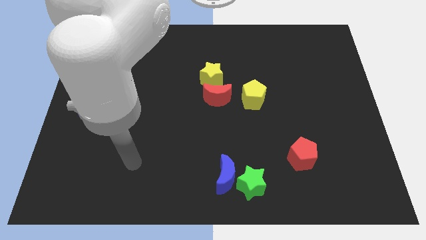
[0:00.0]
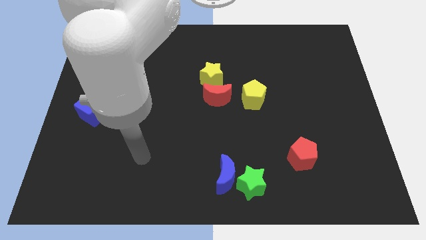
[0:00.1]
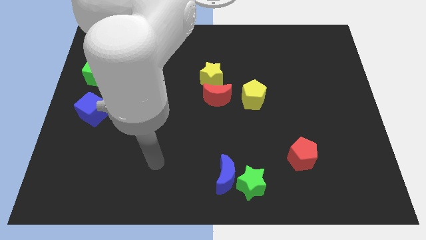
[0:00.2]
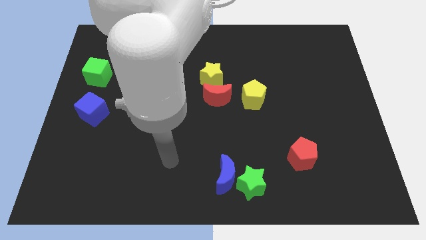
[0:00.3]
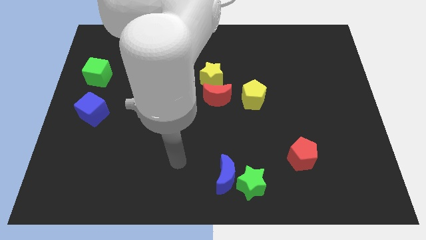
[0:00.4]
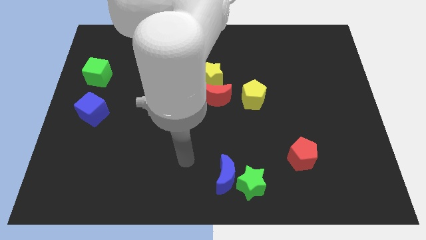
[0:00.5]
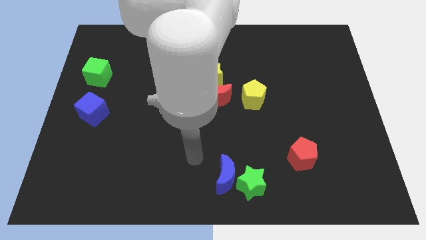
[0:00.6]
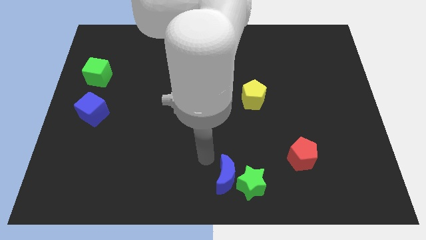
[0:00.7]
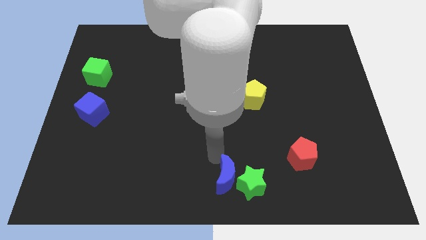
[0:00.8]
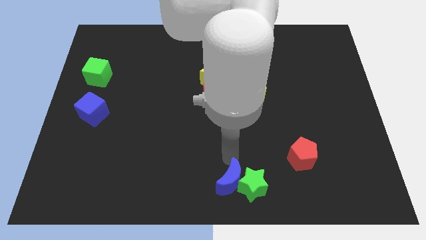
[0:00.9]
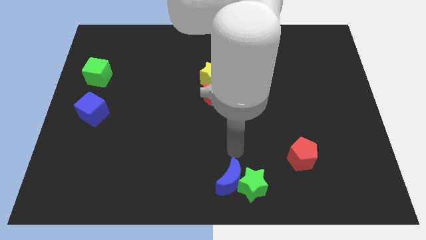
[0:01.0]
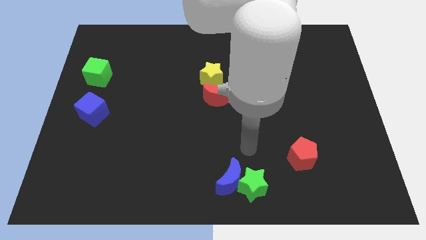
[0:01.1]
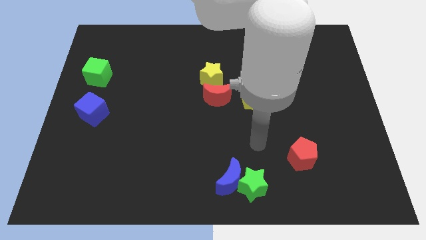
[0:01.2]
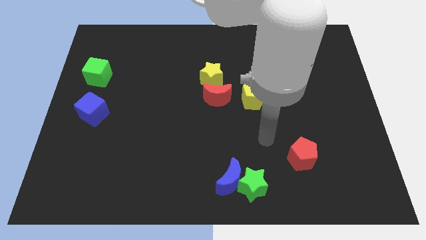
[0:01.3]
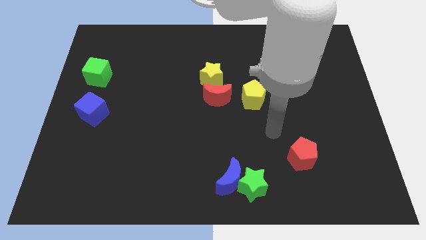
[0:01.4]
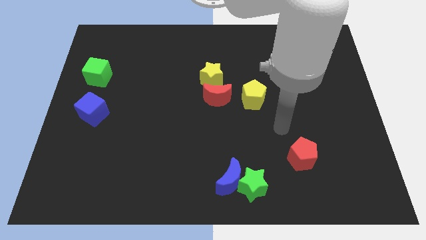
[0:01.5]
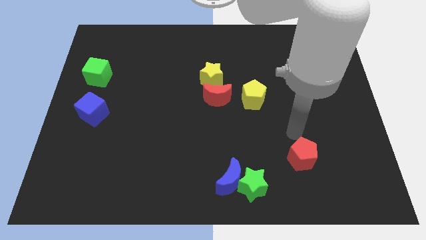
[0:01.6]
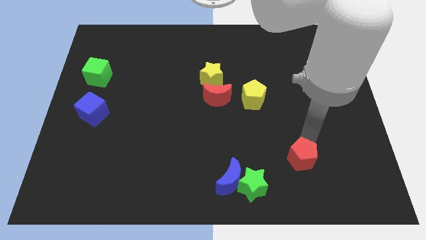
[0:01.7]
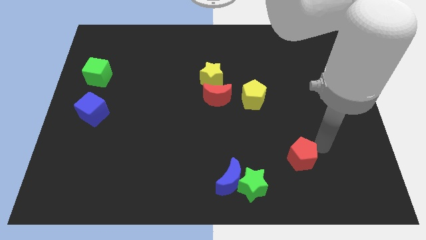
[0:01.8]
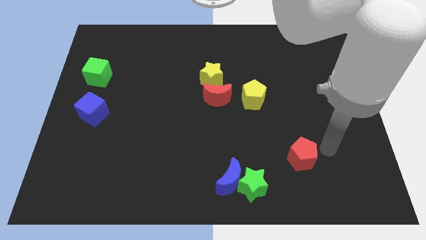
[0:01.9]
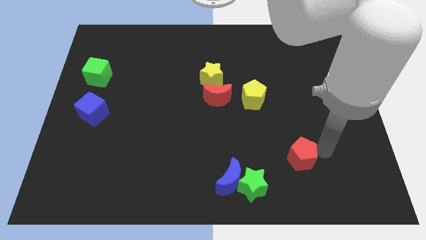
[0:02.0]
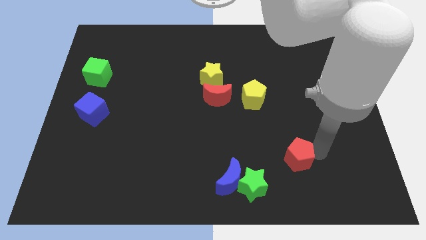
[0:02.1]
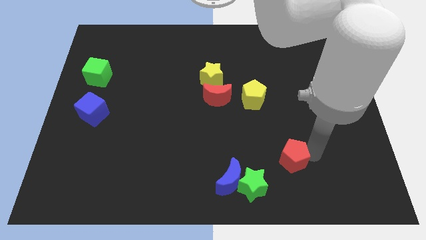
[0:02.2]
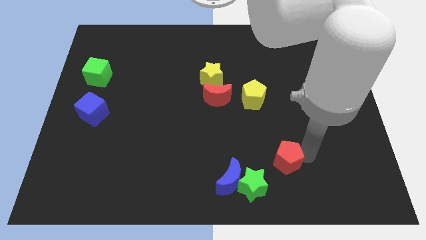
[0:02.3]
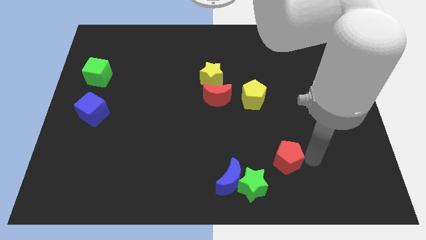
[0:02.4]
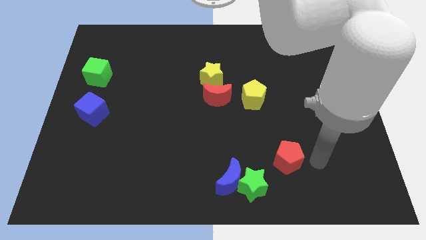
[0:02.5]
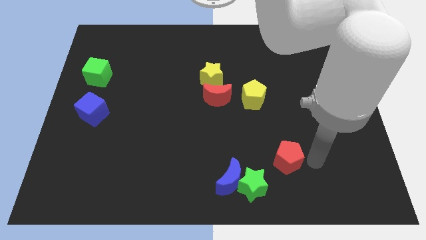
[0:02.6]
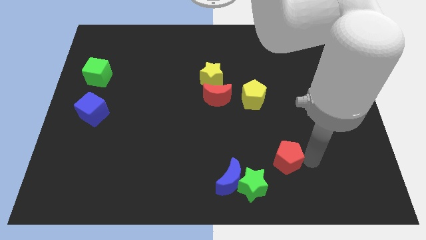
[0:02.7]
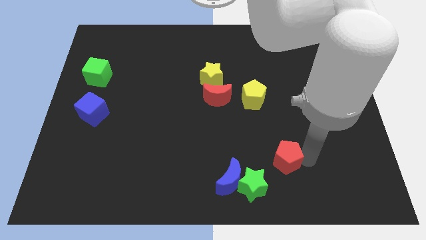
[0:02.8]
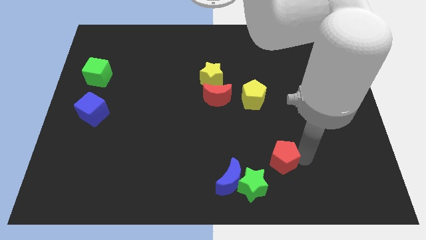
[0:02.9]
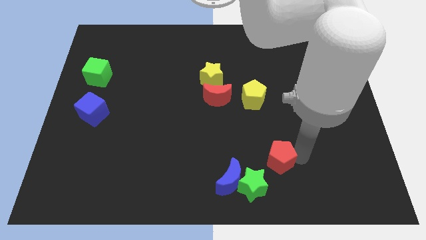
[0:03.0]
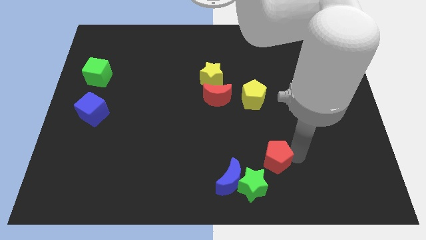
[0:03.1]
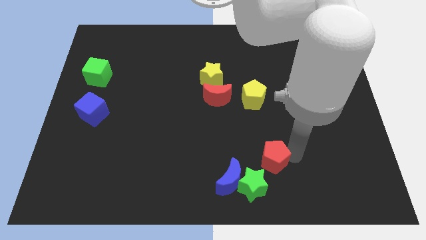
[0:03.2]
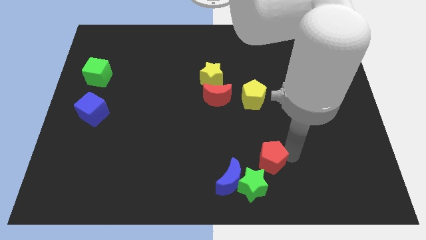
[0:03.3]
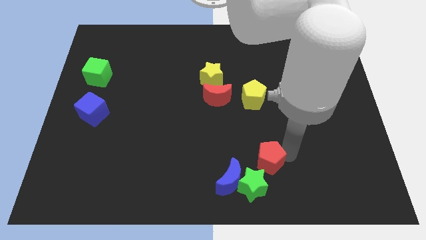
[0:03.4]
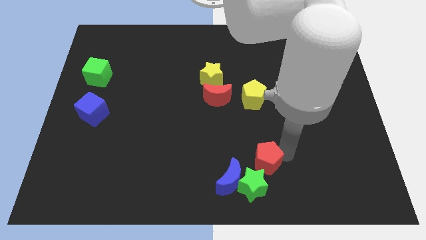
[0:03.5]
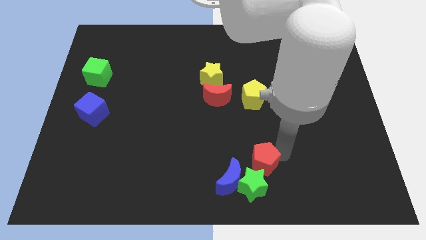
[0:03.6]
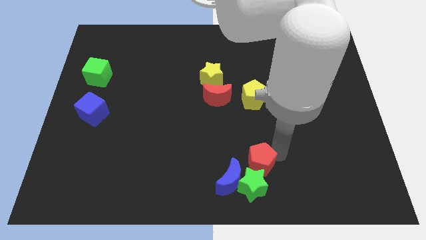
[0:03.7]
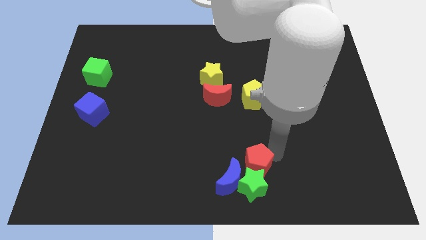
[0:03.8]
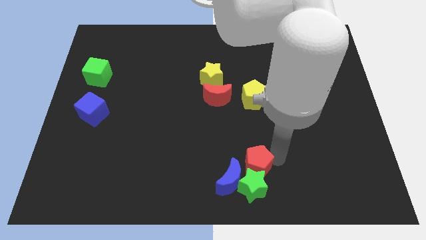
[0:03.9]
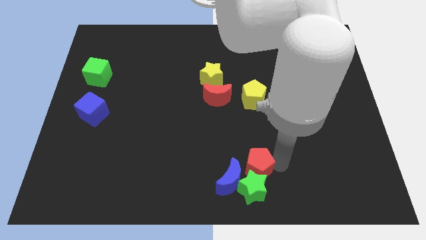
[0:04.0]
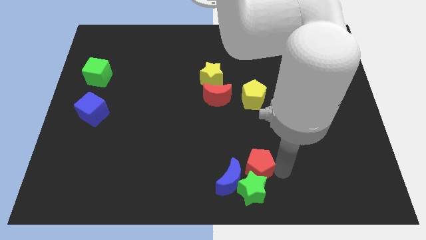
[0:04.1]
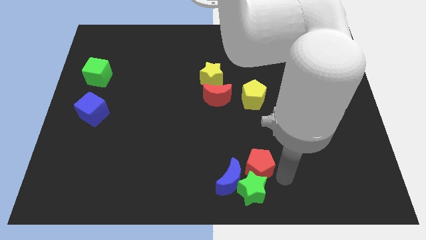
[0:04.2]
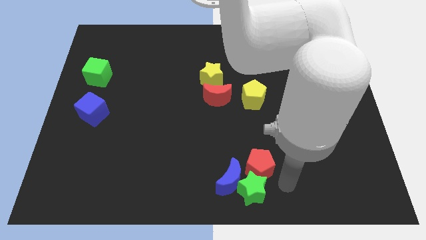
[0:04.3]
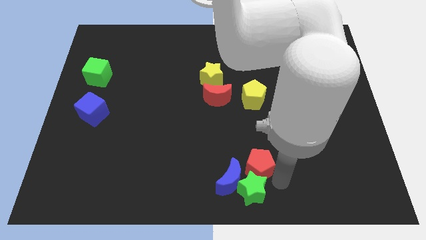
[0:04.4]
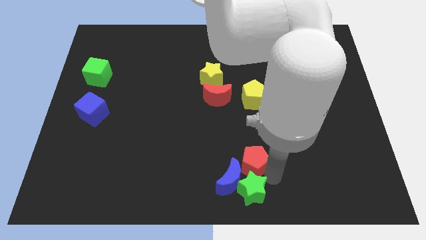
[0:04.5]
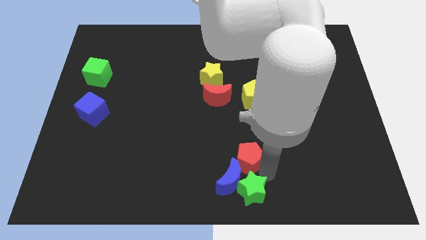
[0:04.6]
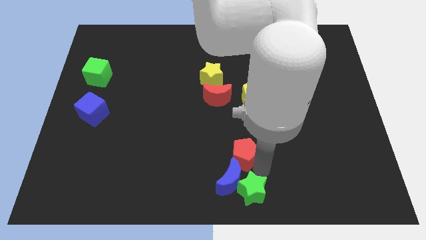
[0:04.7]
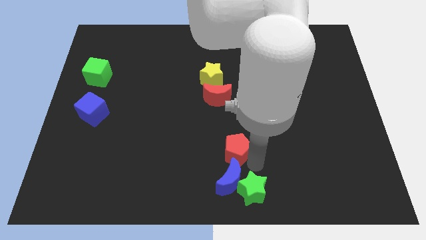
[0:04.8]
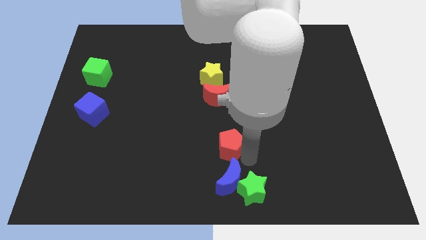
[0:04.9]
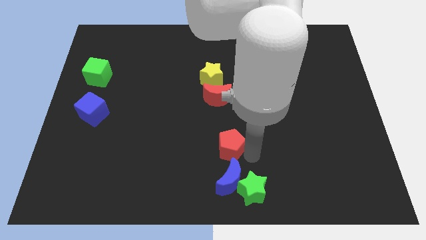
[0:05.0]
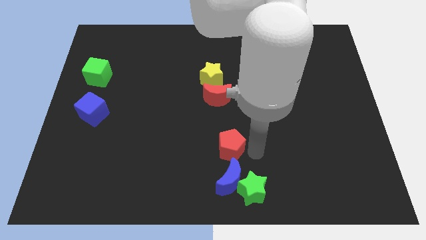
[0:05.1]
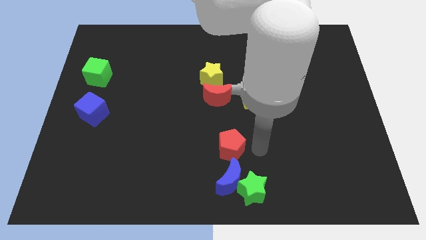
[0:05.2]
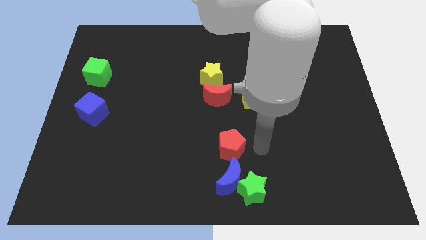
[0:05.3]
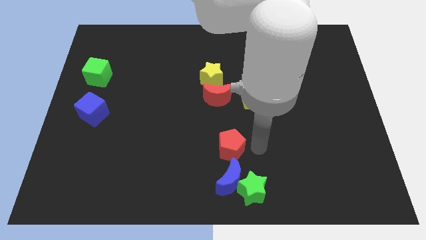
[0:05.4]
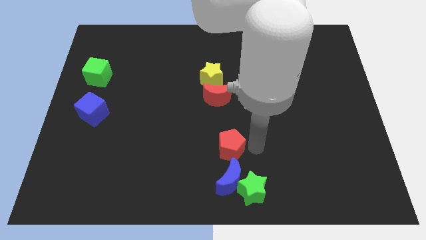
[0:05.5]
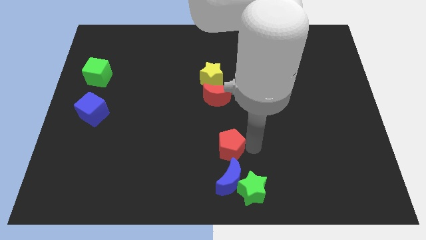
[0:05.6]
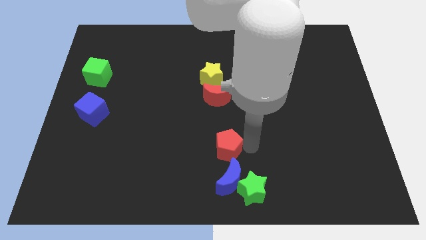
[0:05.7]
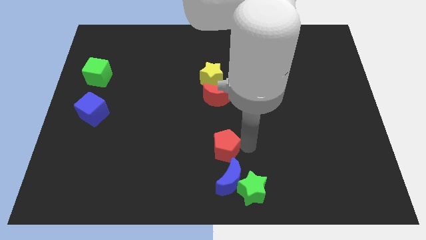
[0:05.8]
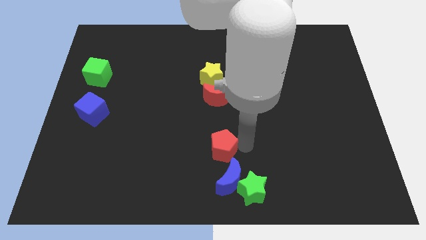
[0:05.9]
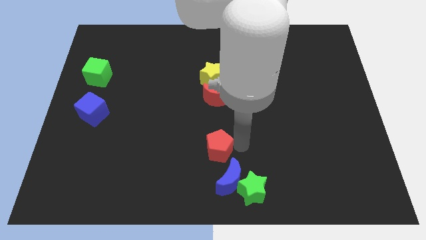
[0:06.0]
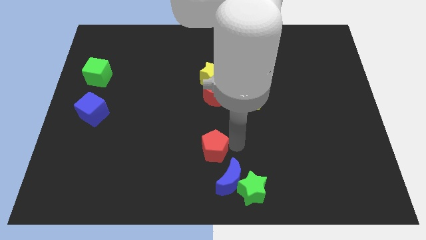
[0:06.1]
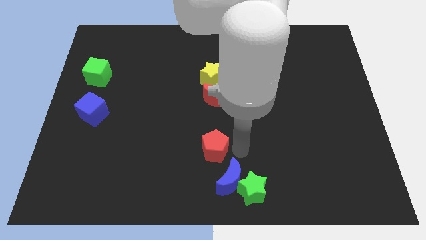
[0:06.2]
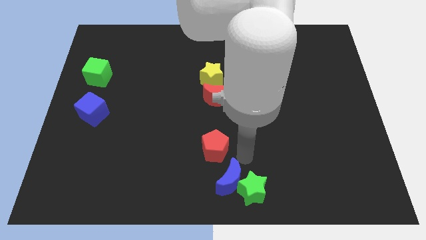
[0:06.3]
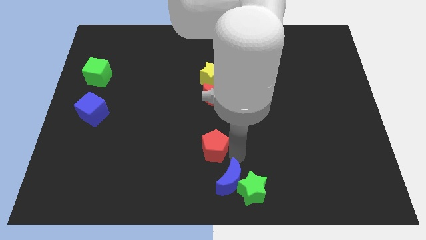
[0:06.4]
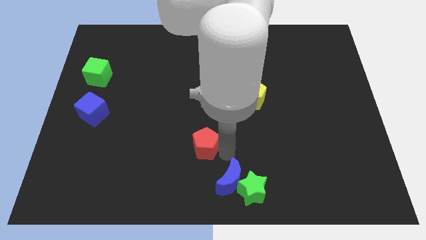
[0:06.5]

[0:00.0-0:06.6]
slide the red pentagon to the left

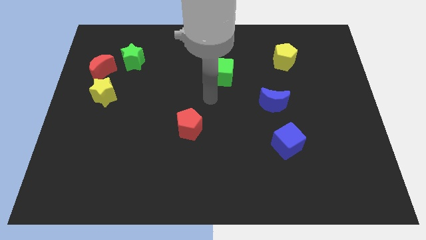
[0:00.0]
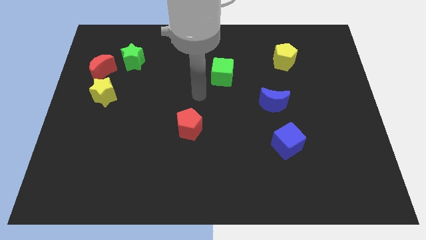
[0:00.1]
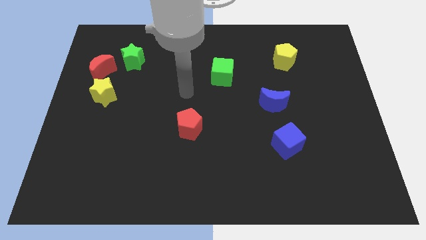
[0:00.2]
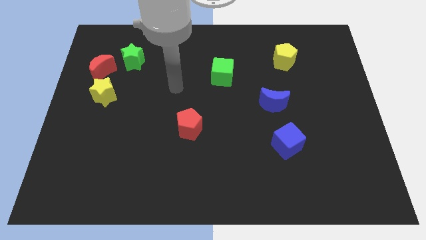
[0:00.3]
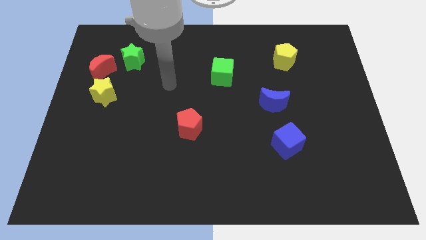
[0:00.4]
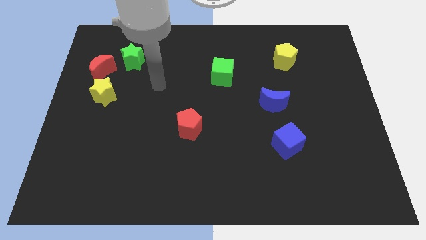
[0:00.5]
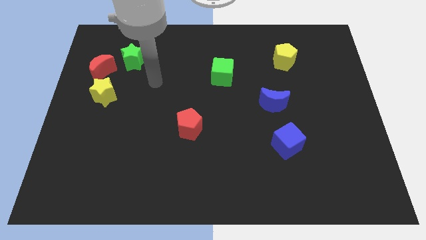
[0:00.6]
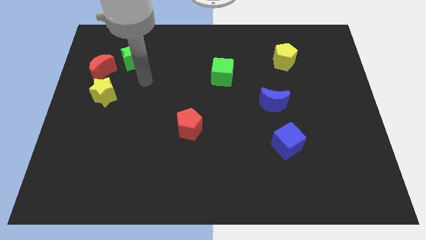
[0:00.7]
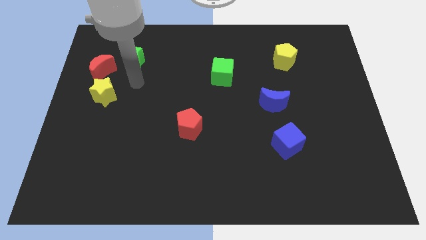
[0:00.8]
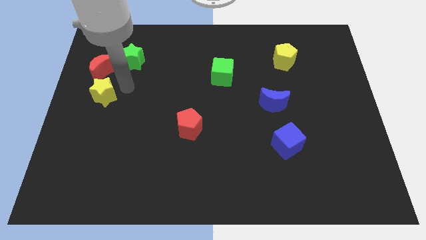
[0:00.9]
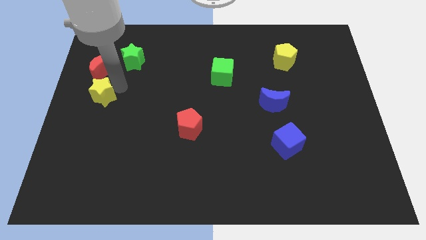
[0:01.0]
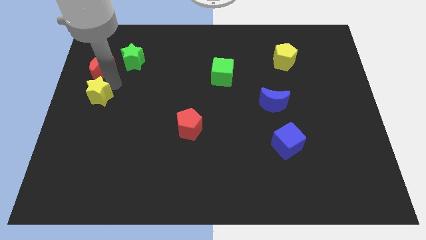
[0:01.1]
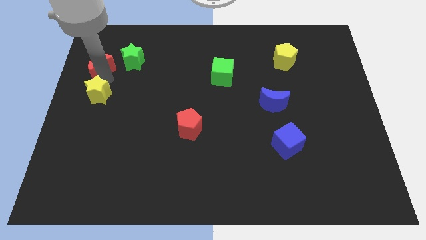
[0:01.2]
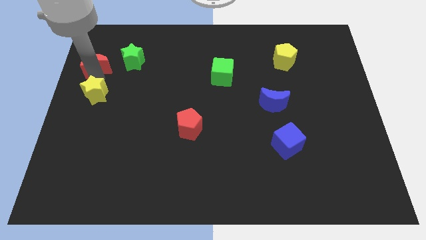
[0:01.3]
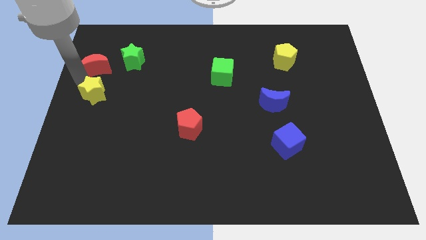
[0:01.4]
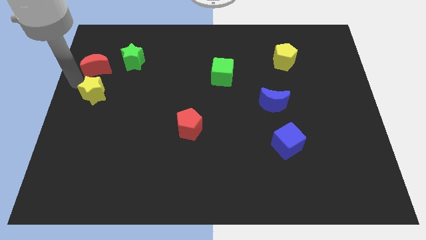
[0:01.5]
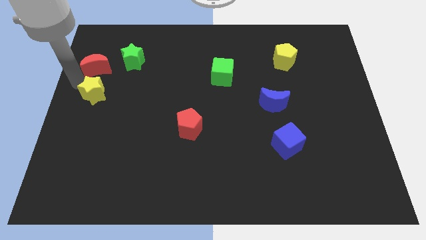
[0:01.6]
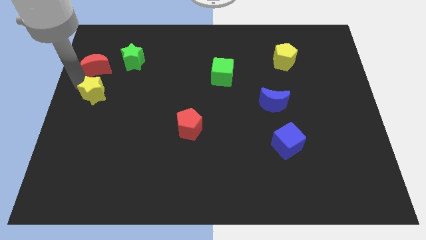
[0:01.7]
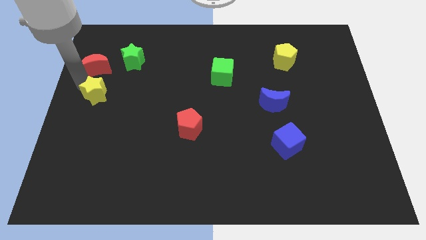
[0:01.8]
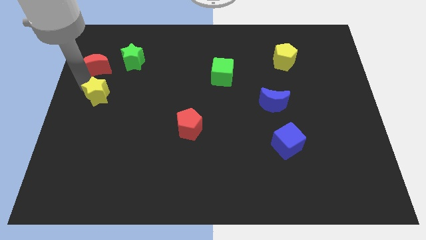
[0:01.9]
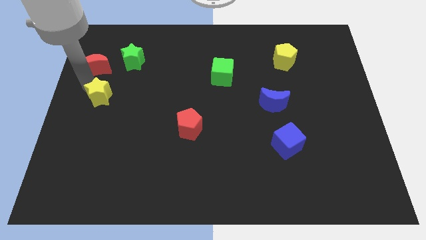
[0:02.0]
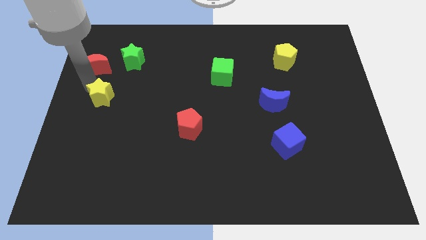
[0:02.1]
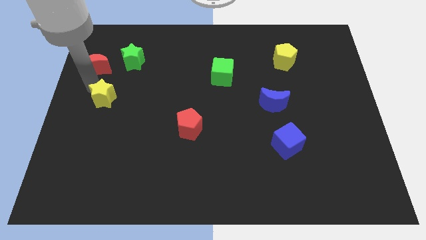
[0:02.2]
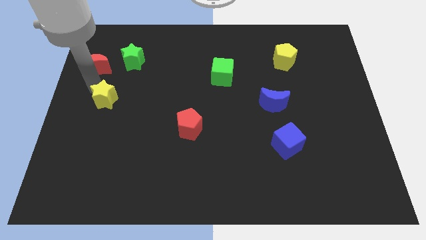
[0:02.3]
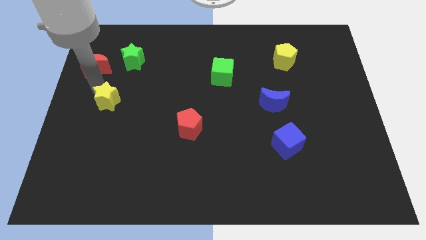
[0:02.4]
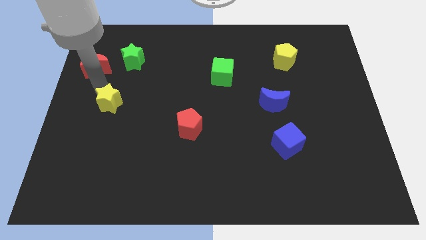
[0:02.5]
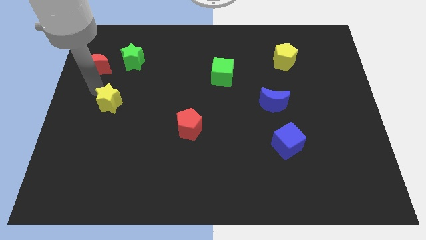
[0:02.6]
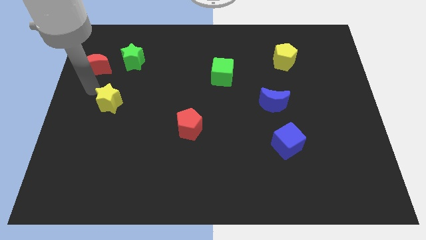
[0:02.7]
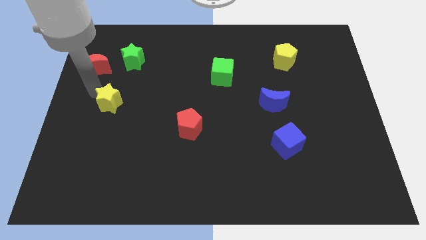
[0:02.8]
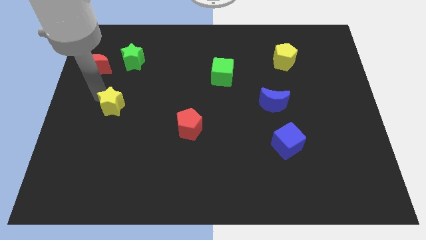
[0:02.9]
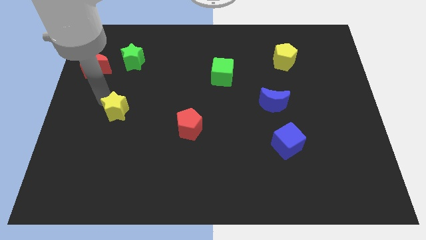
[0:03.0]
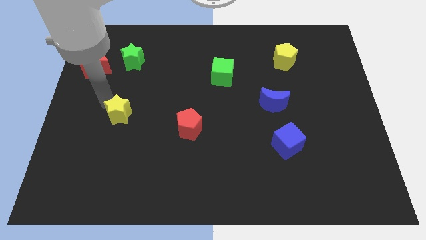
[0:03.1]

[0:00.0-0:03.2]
slightly move the yellow star down and then right
